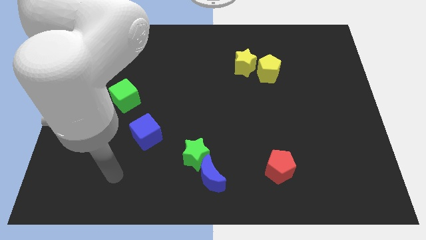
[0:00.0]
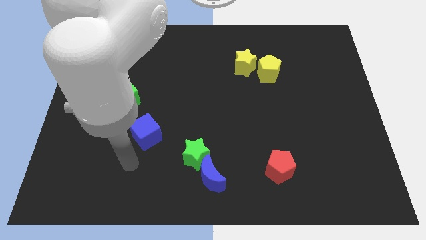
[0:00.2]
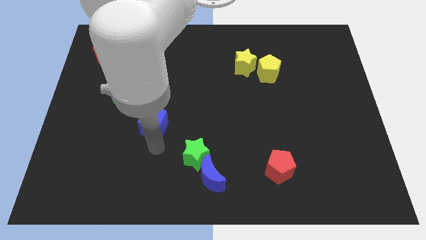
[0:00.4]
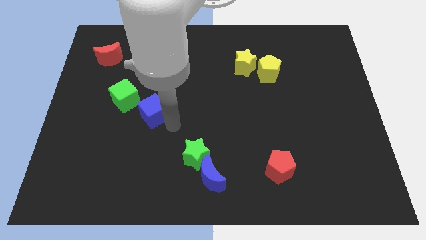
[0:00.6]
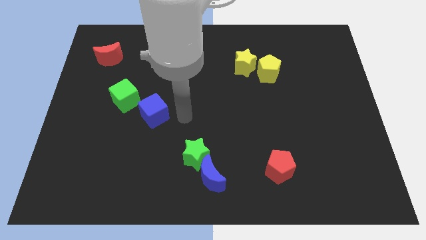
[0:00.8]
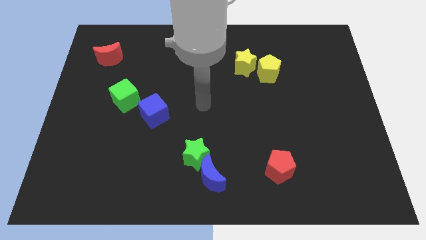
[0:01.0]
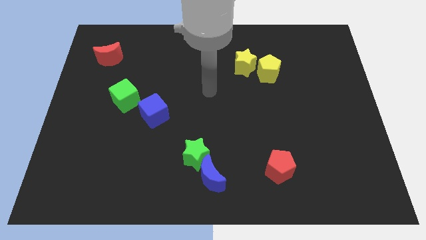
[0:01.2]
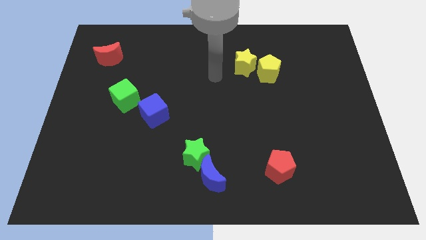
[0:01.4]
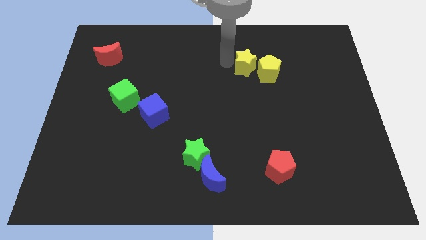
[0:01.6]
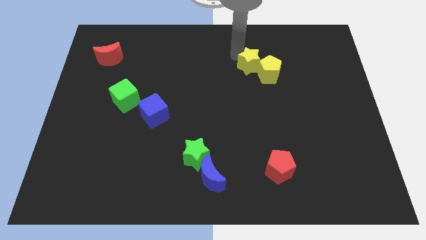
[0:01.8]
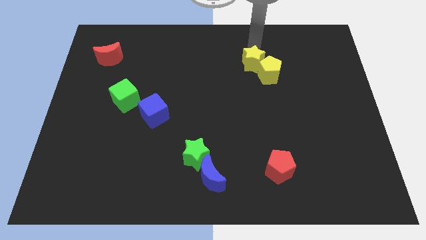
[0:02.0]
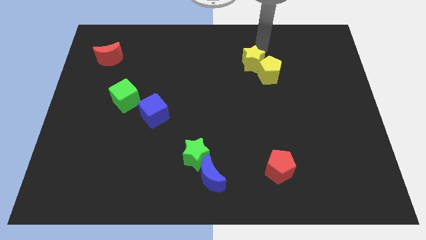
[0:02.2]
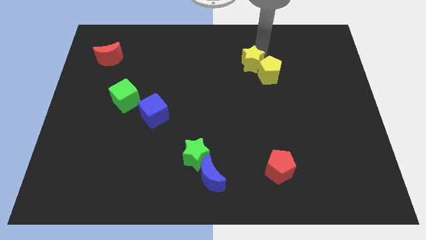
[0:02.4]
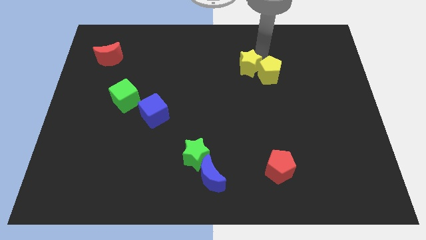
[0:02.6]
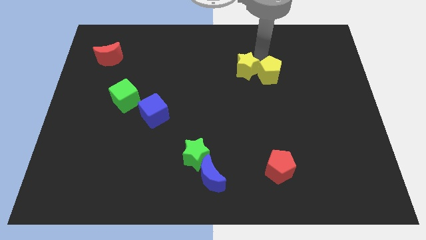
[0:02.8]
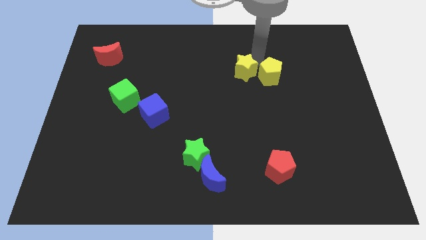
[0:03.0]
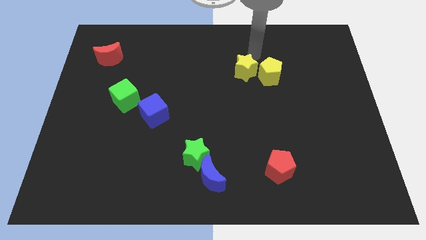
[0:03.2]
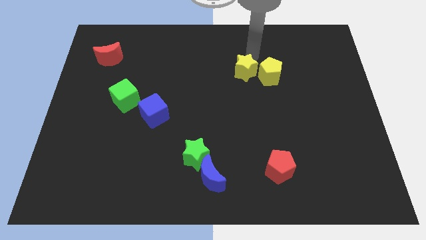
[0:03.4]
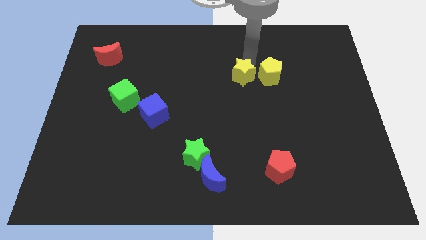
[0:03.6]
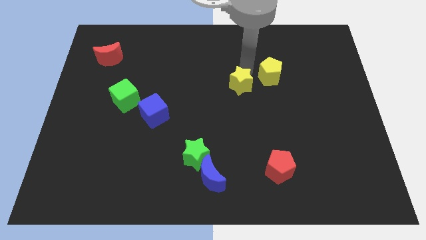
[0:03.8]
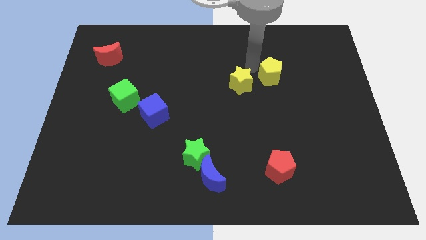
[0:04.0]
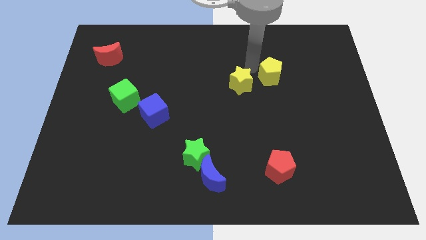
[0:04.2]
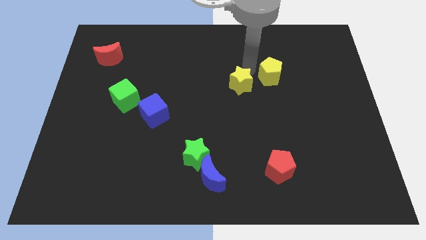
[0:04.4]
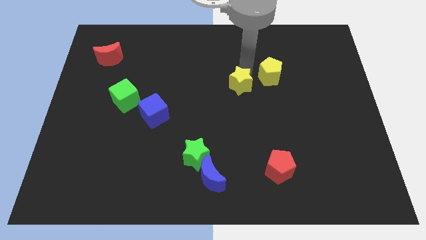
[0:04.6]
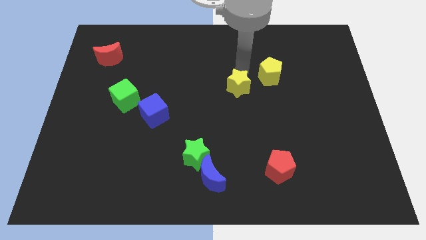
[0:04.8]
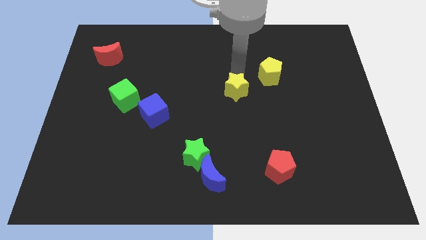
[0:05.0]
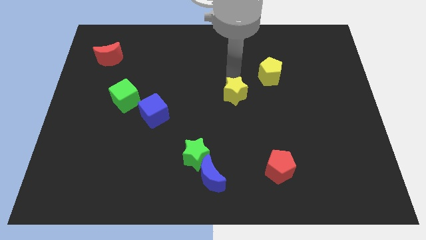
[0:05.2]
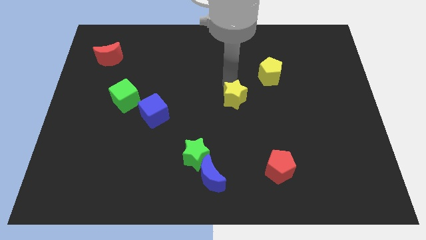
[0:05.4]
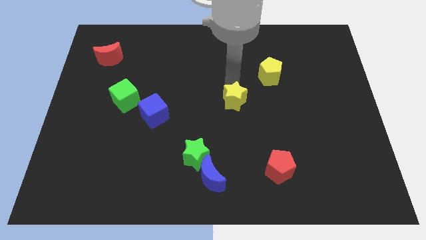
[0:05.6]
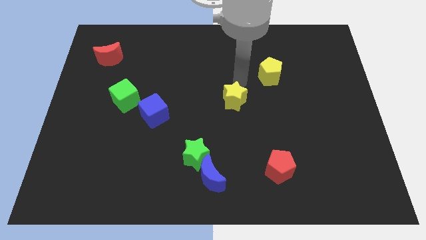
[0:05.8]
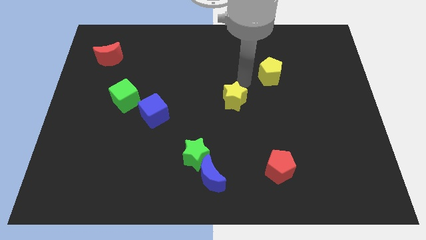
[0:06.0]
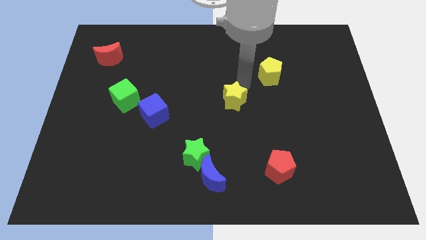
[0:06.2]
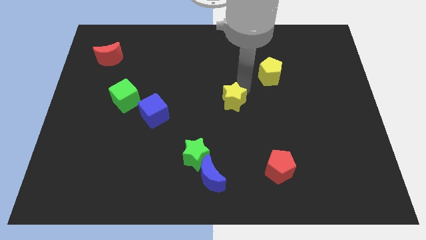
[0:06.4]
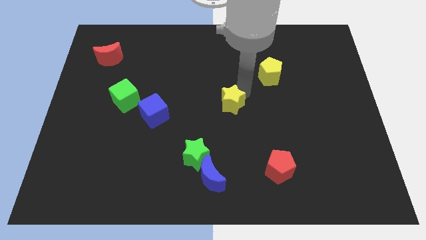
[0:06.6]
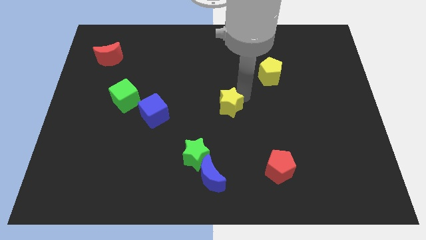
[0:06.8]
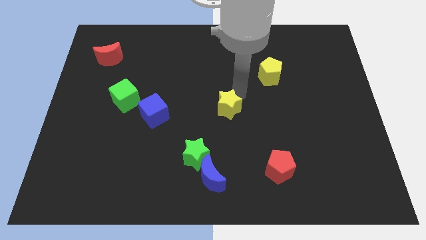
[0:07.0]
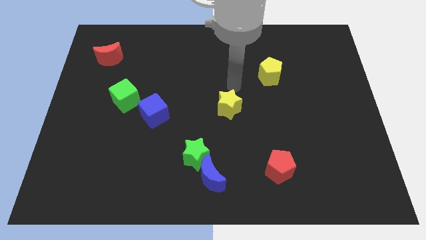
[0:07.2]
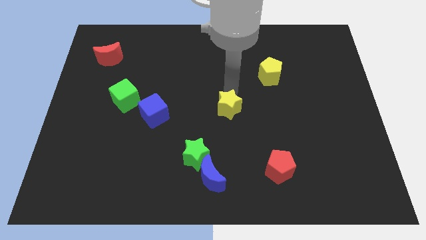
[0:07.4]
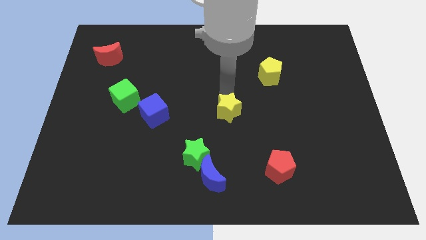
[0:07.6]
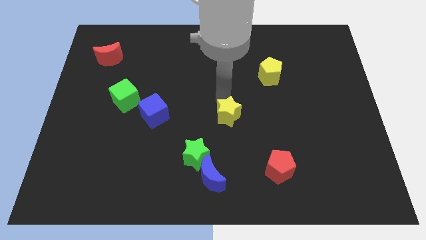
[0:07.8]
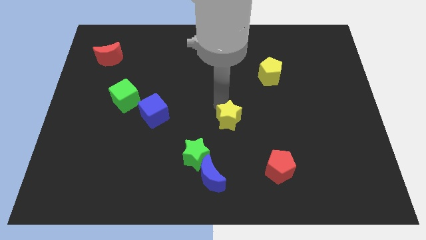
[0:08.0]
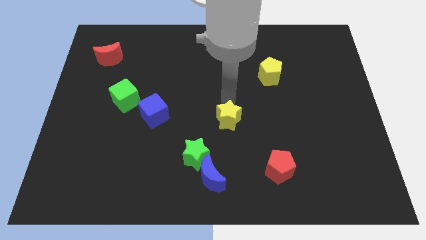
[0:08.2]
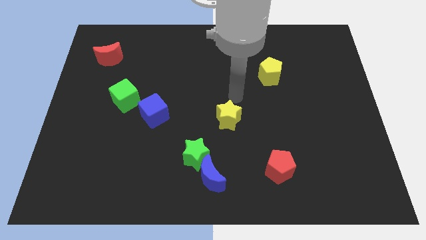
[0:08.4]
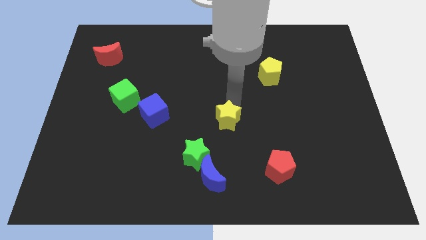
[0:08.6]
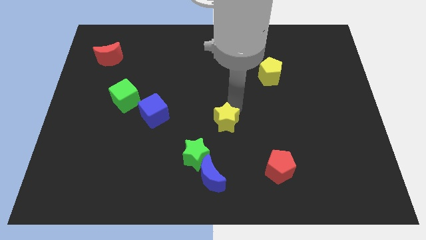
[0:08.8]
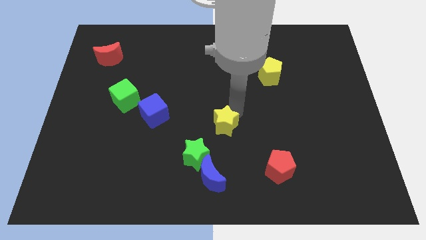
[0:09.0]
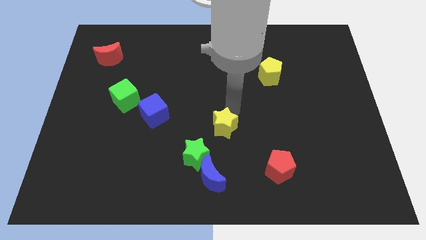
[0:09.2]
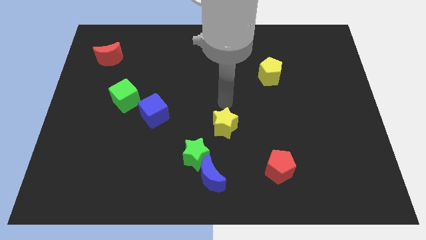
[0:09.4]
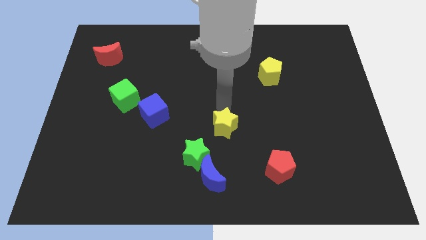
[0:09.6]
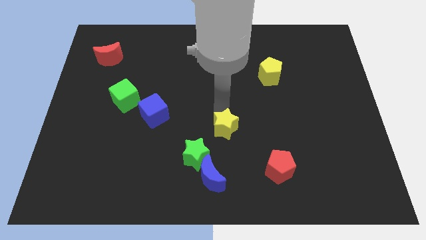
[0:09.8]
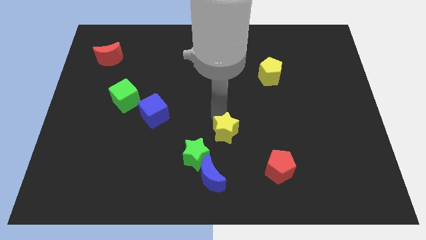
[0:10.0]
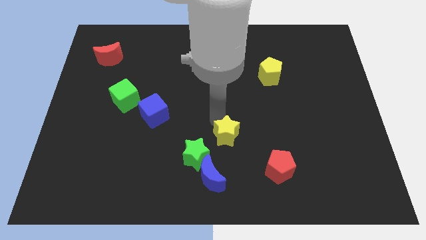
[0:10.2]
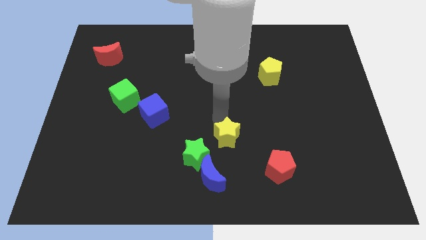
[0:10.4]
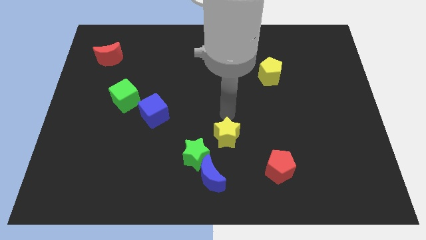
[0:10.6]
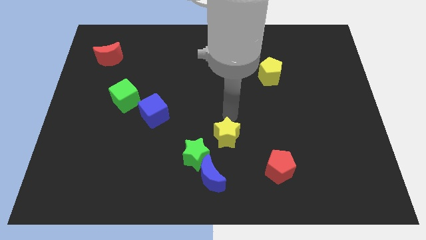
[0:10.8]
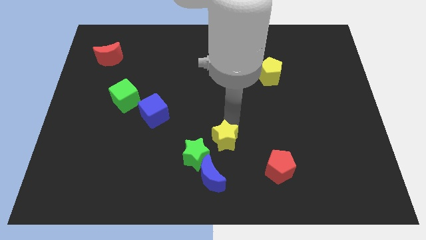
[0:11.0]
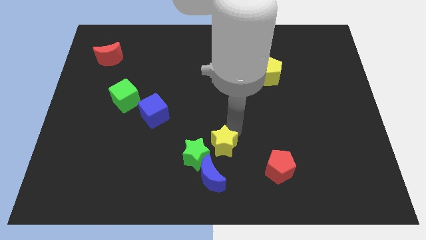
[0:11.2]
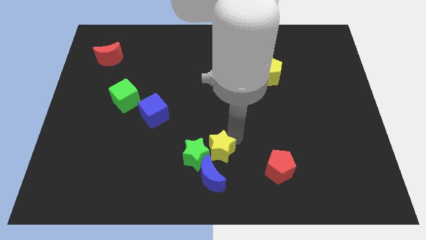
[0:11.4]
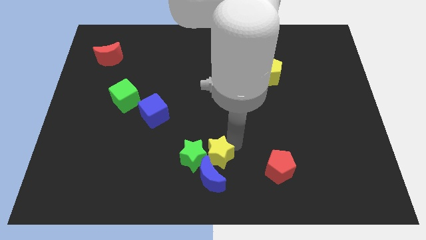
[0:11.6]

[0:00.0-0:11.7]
push the yellow star close to the blue moon

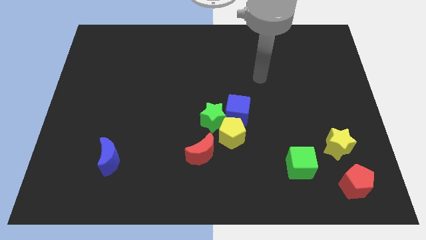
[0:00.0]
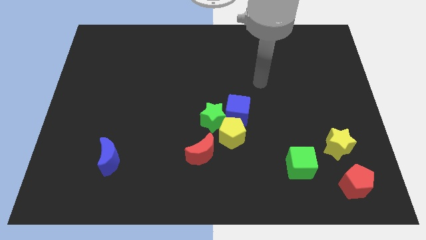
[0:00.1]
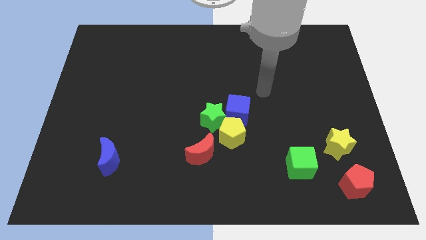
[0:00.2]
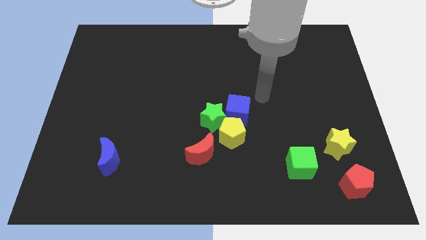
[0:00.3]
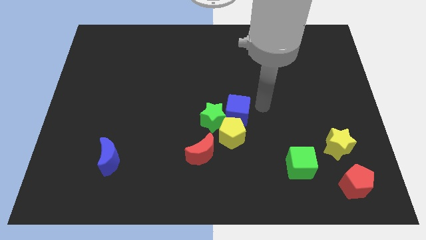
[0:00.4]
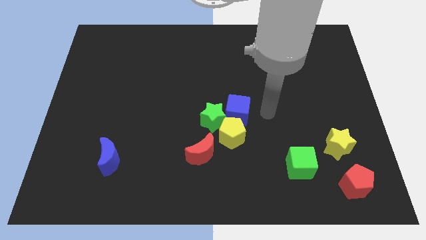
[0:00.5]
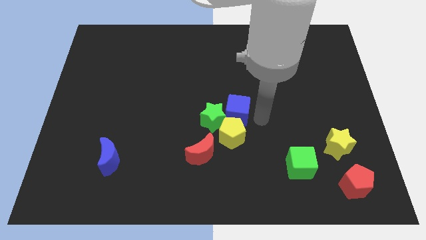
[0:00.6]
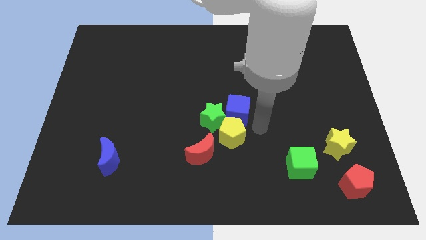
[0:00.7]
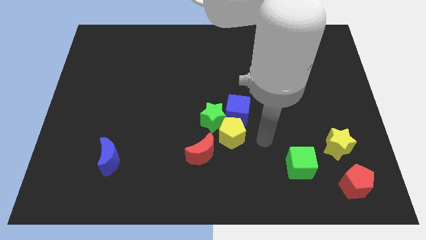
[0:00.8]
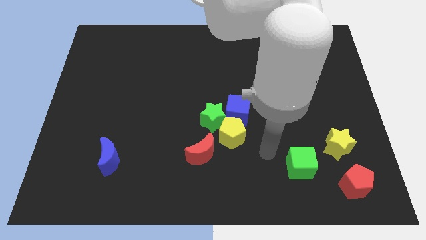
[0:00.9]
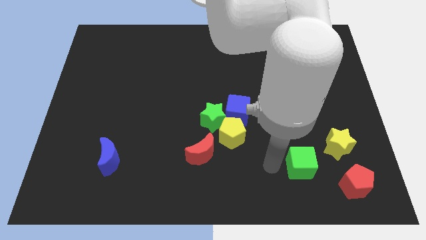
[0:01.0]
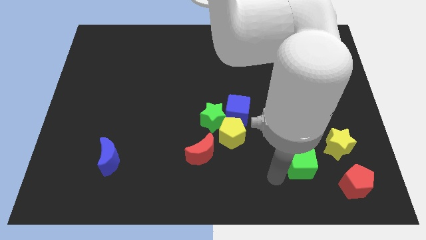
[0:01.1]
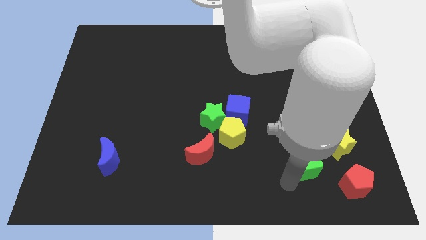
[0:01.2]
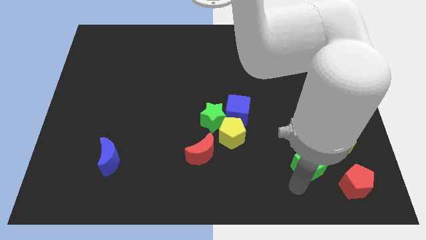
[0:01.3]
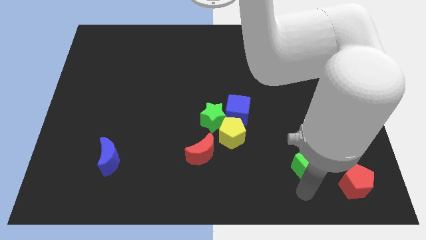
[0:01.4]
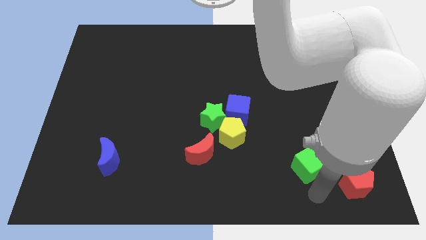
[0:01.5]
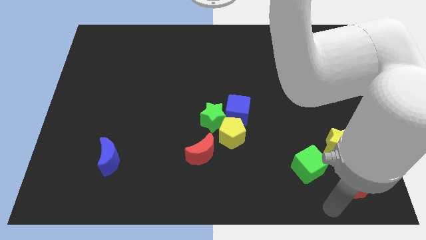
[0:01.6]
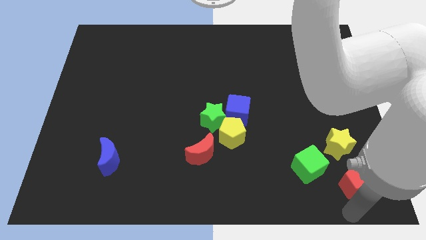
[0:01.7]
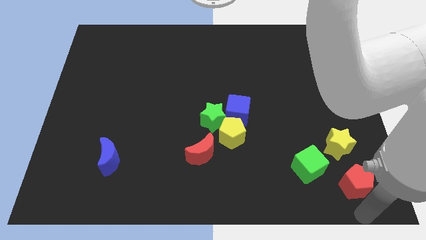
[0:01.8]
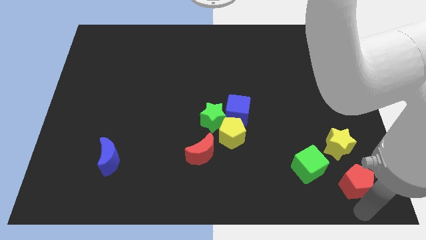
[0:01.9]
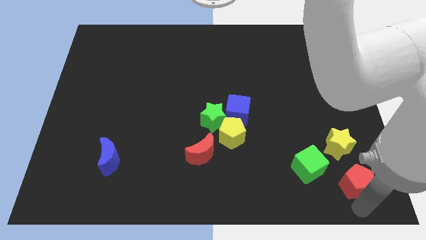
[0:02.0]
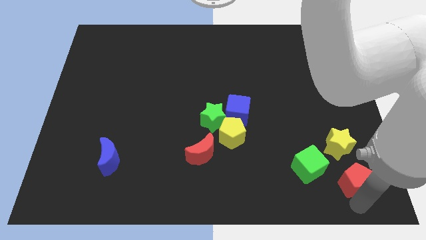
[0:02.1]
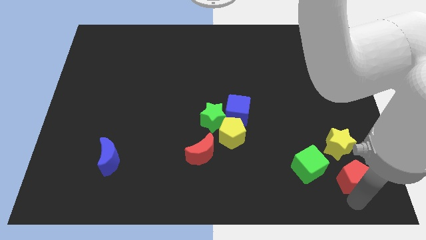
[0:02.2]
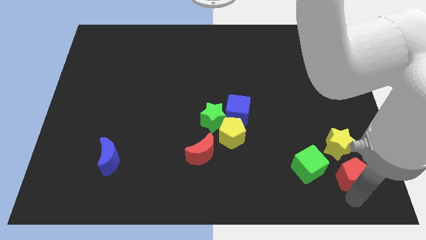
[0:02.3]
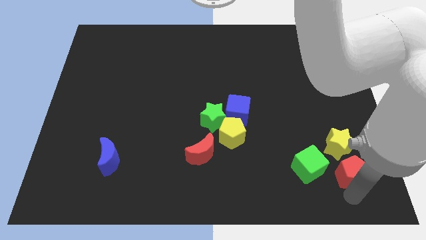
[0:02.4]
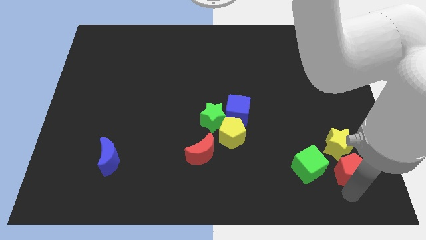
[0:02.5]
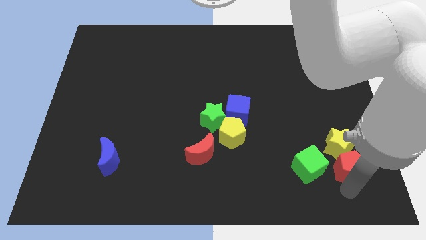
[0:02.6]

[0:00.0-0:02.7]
move the red pentagon close to the yellow star
